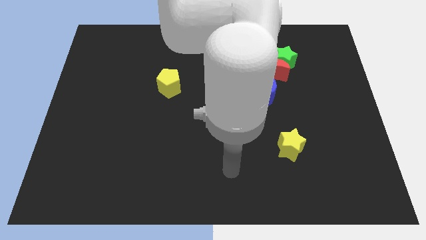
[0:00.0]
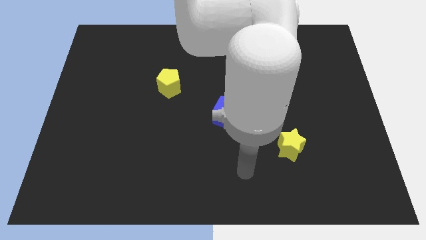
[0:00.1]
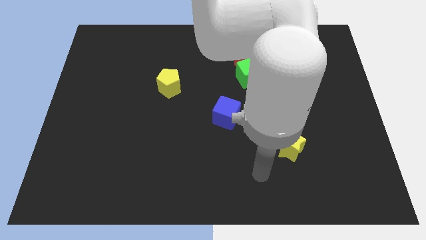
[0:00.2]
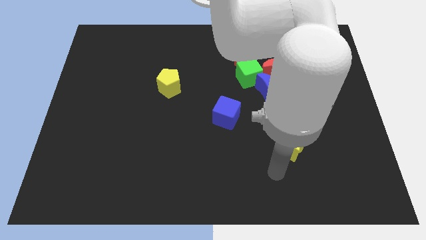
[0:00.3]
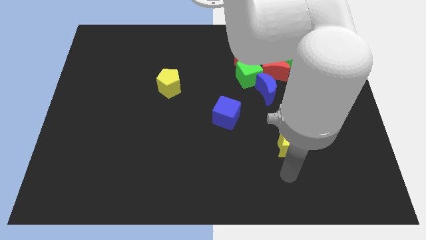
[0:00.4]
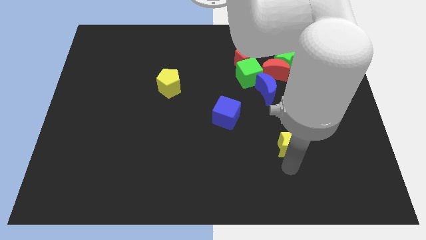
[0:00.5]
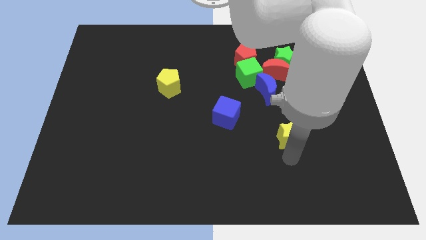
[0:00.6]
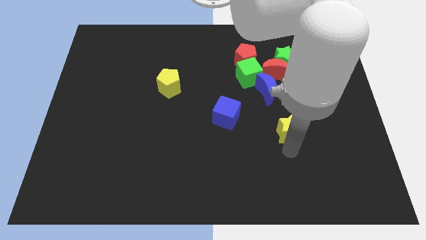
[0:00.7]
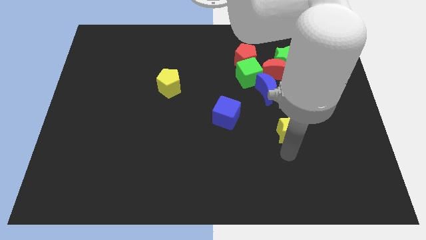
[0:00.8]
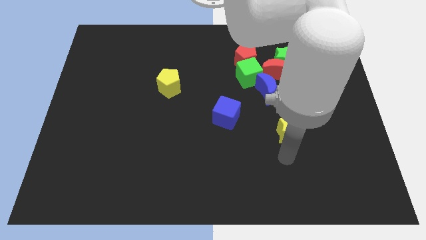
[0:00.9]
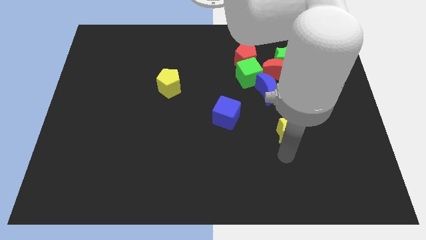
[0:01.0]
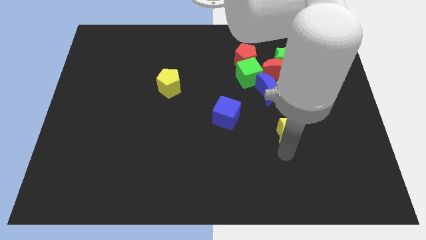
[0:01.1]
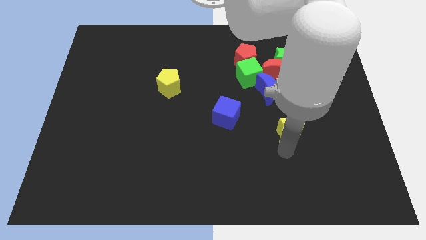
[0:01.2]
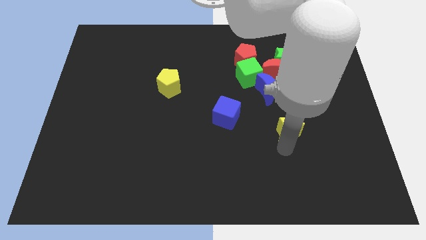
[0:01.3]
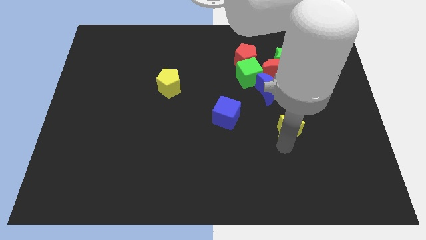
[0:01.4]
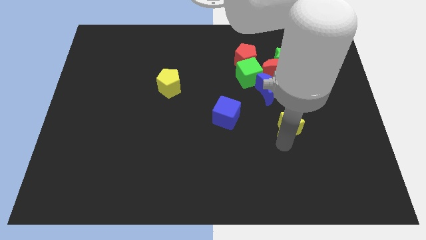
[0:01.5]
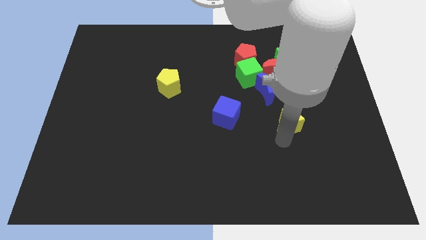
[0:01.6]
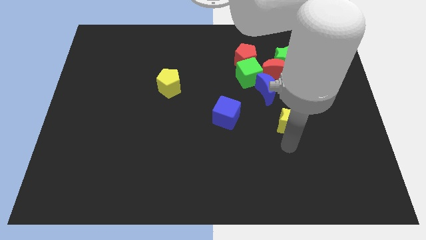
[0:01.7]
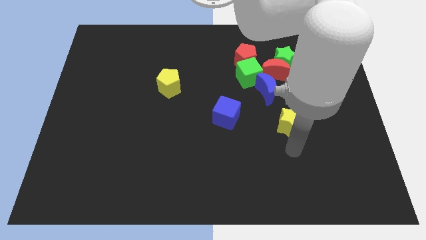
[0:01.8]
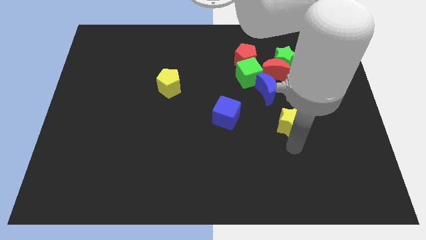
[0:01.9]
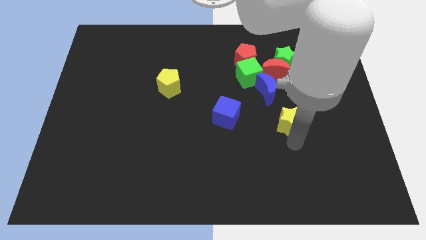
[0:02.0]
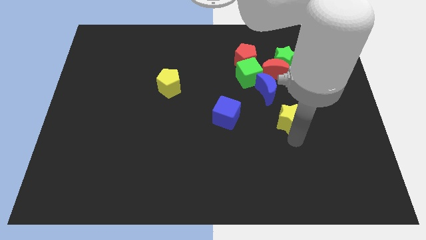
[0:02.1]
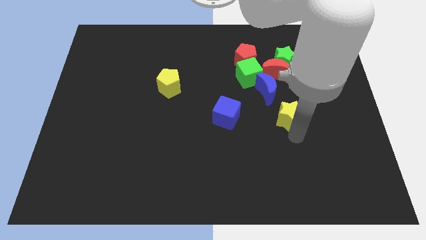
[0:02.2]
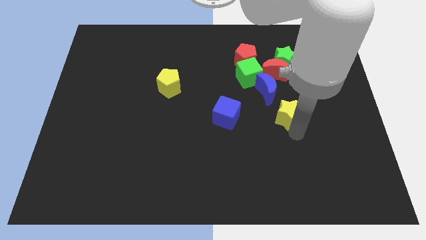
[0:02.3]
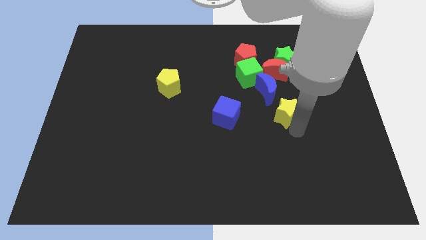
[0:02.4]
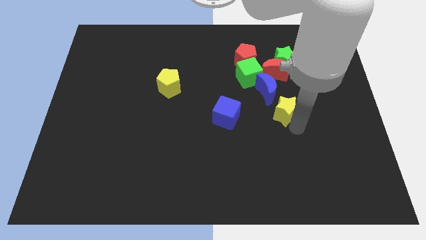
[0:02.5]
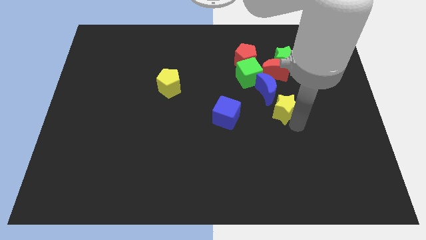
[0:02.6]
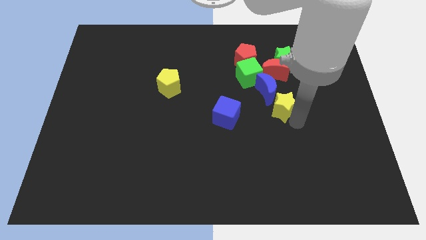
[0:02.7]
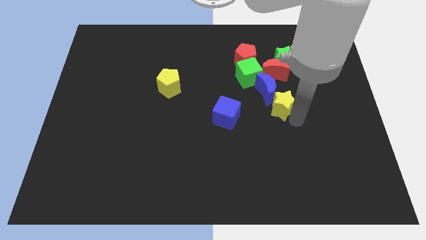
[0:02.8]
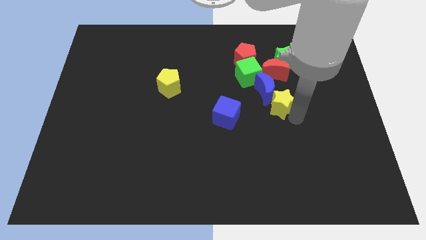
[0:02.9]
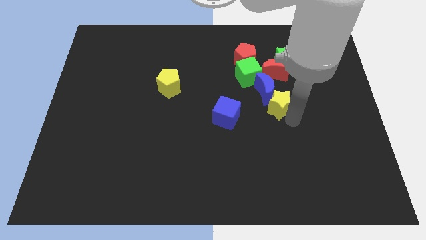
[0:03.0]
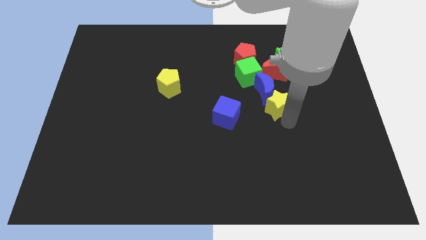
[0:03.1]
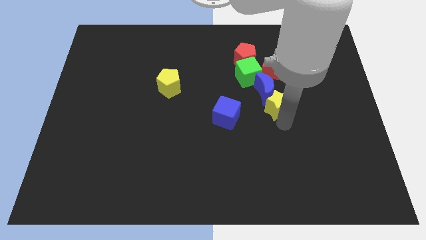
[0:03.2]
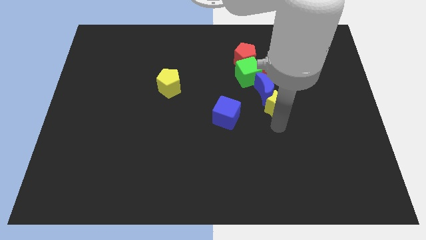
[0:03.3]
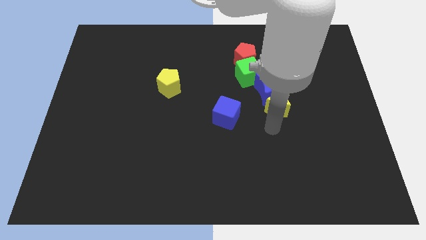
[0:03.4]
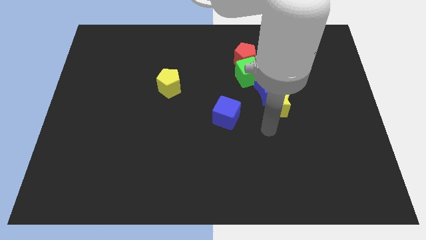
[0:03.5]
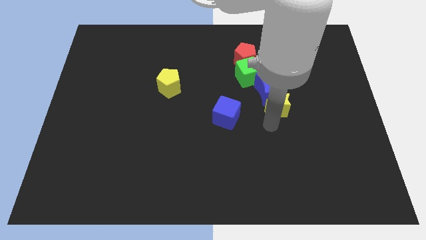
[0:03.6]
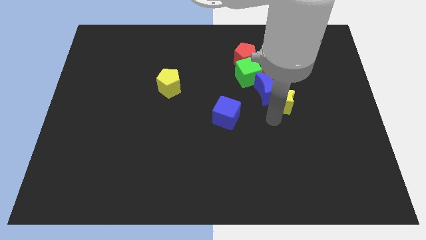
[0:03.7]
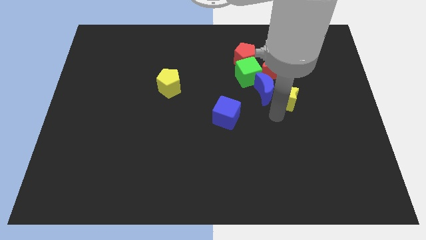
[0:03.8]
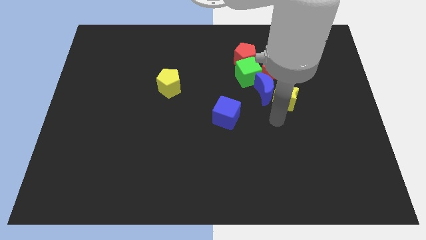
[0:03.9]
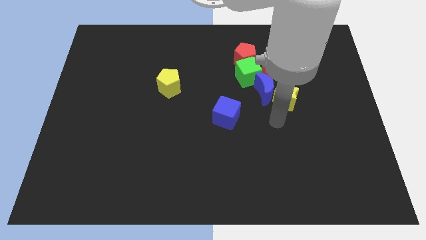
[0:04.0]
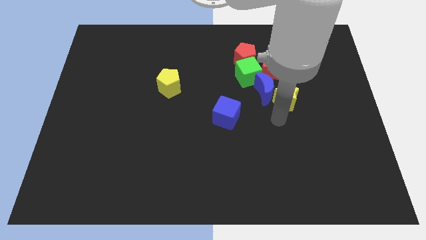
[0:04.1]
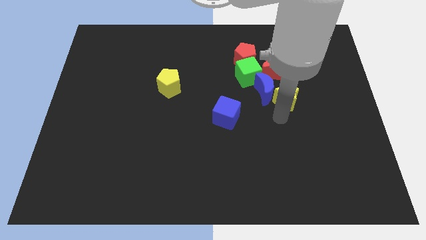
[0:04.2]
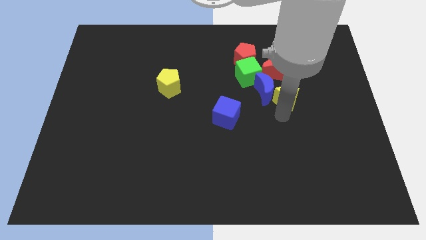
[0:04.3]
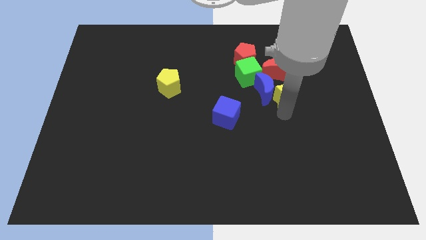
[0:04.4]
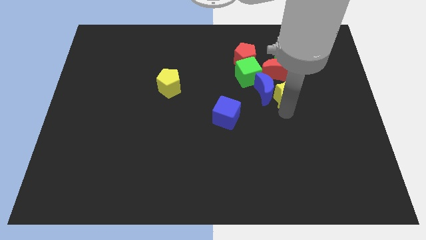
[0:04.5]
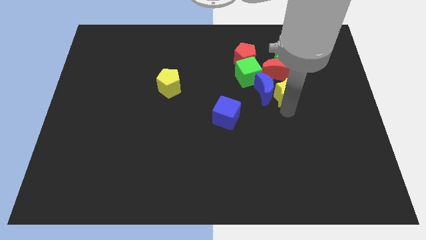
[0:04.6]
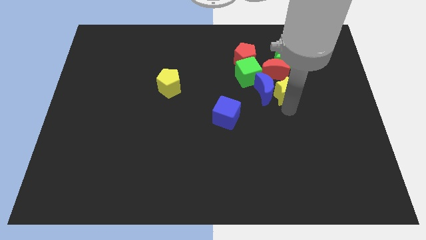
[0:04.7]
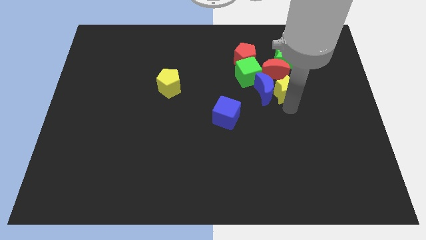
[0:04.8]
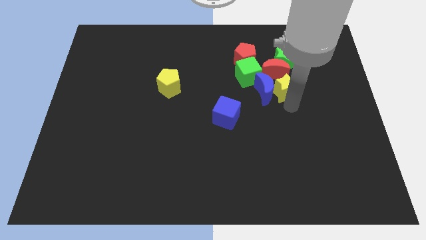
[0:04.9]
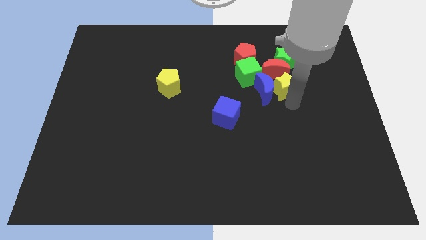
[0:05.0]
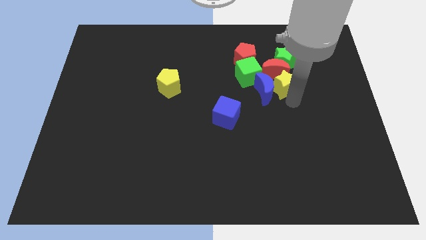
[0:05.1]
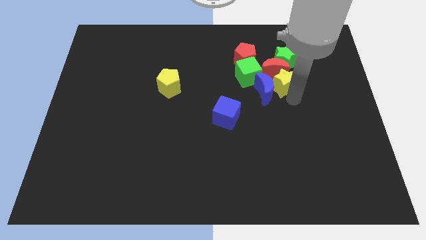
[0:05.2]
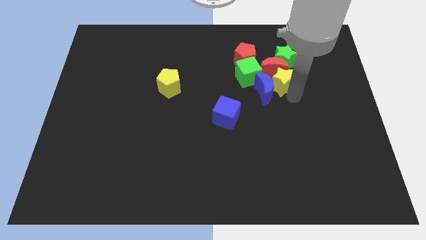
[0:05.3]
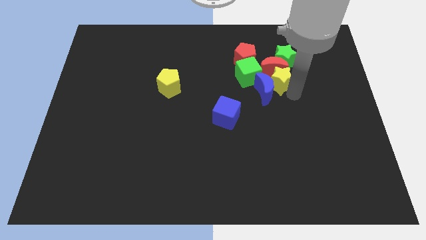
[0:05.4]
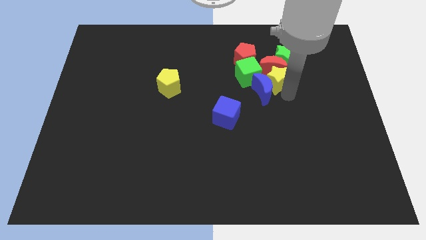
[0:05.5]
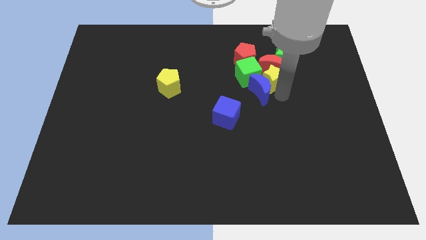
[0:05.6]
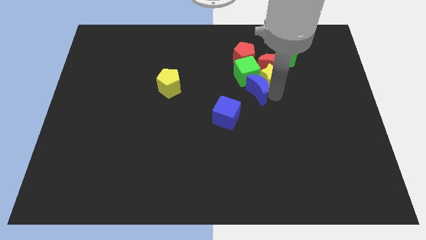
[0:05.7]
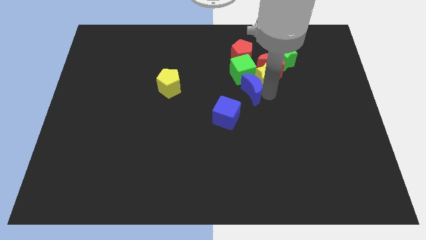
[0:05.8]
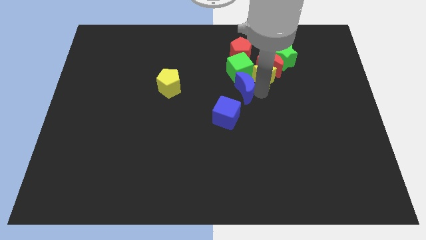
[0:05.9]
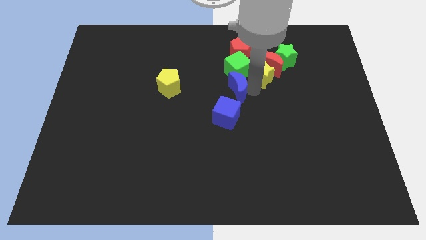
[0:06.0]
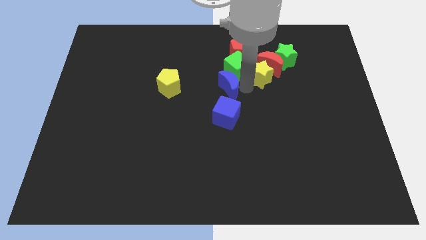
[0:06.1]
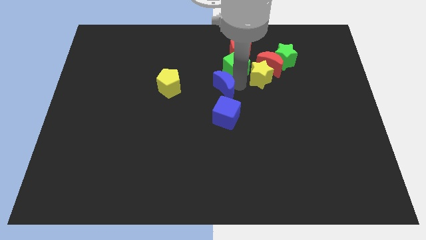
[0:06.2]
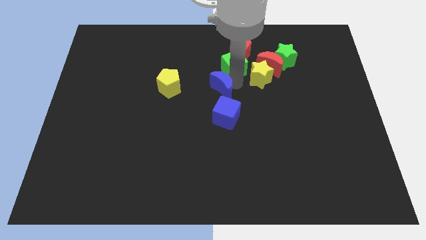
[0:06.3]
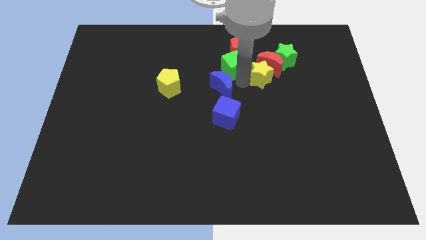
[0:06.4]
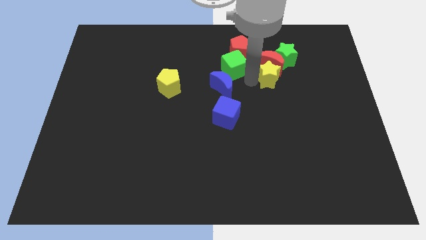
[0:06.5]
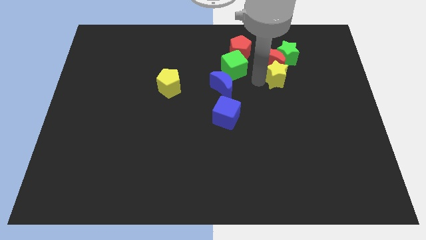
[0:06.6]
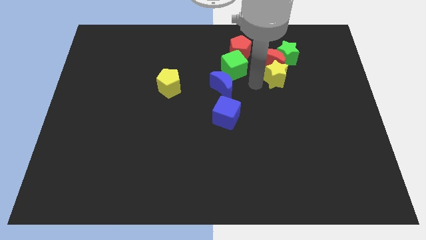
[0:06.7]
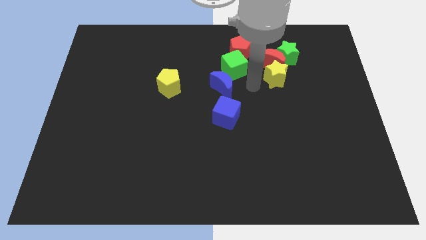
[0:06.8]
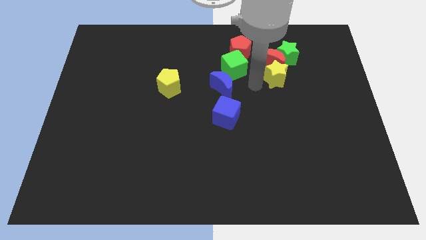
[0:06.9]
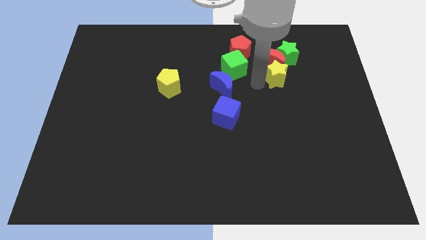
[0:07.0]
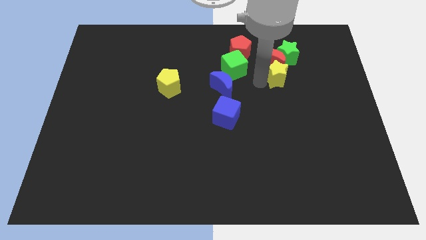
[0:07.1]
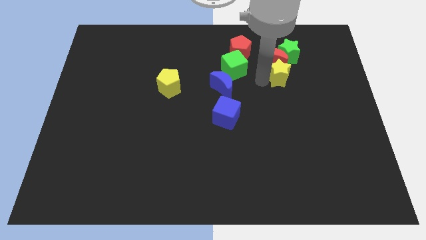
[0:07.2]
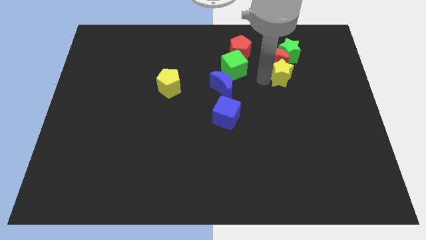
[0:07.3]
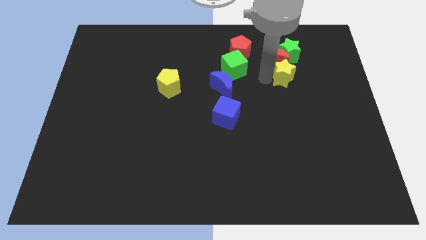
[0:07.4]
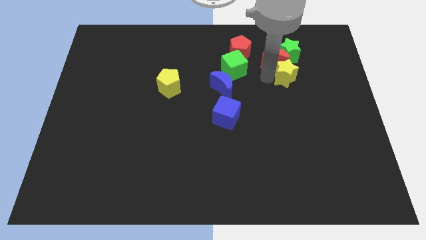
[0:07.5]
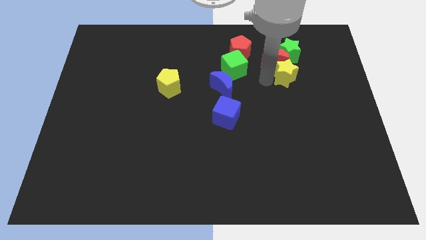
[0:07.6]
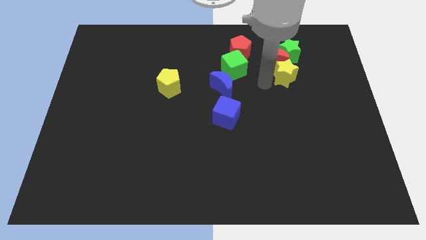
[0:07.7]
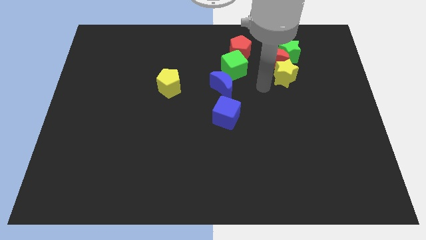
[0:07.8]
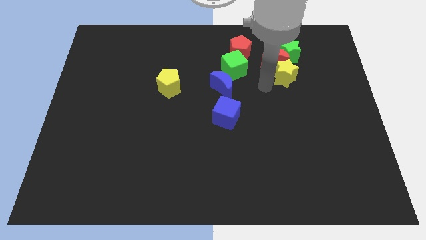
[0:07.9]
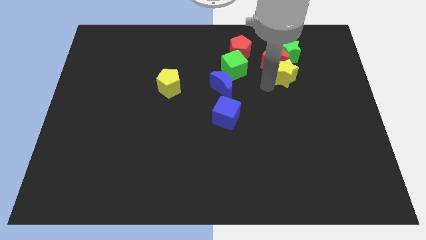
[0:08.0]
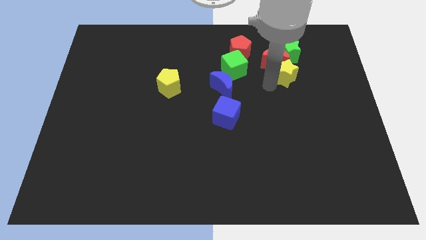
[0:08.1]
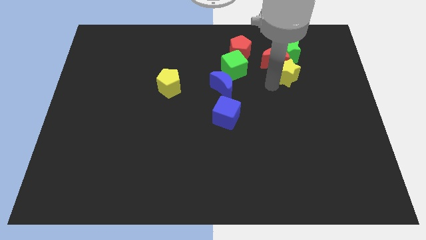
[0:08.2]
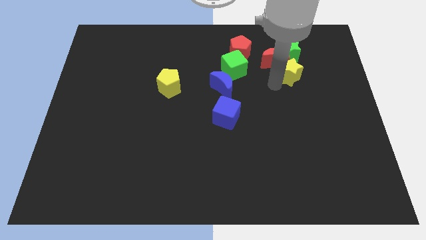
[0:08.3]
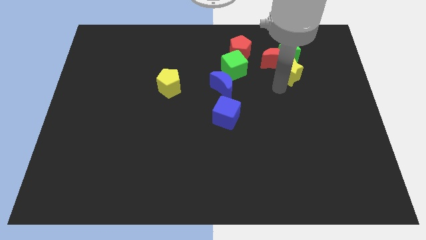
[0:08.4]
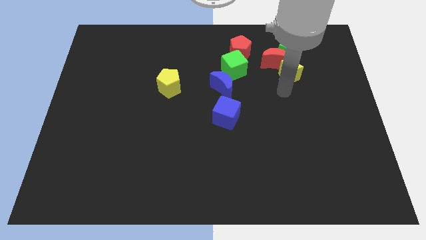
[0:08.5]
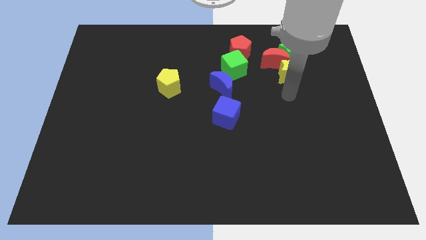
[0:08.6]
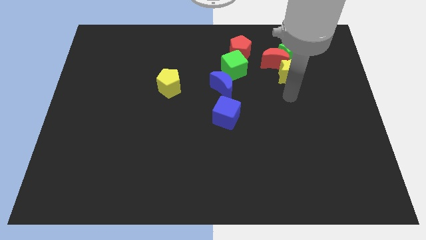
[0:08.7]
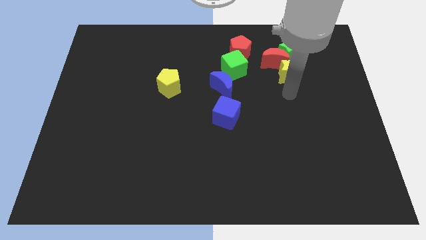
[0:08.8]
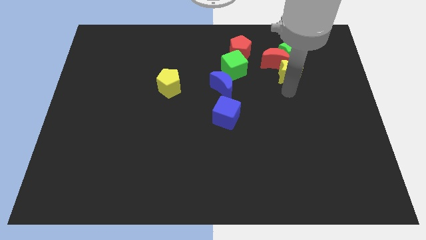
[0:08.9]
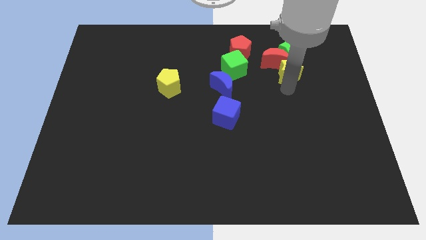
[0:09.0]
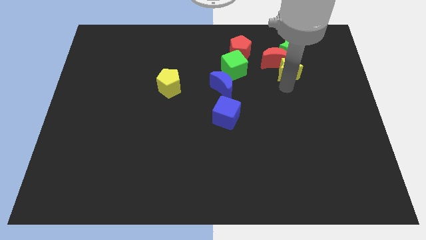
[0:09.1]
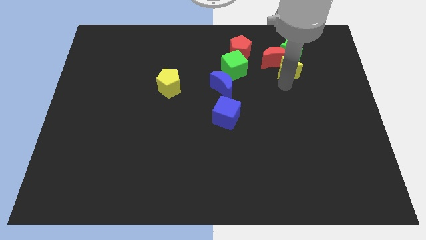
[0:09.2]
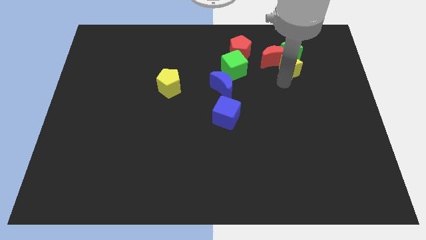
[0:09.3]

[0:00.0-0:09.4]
push the yellow star close to the green star
